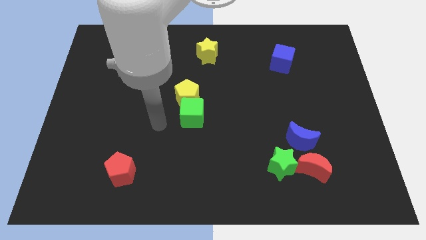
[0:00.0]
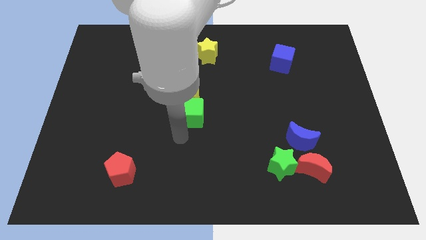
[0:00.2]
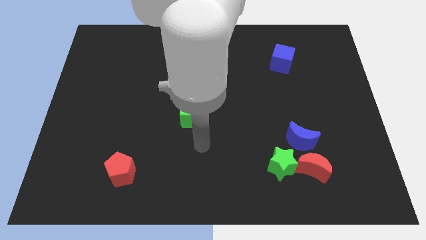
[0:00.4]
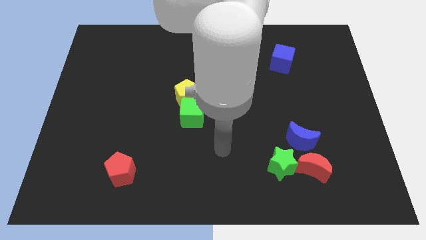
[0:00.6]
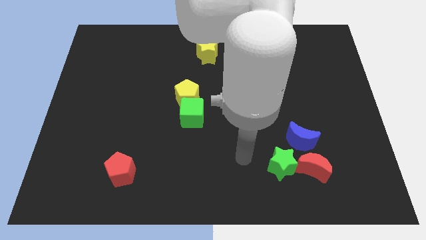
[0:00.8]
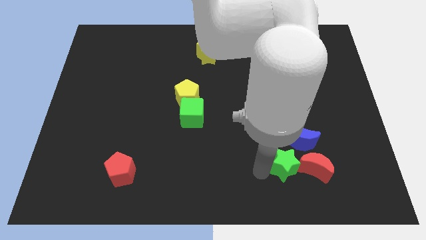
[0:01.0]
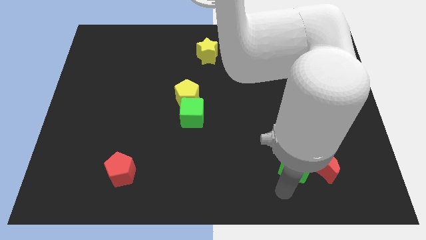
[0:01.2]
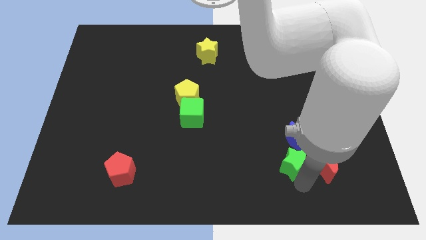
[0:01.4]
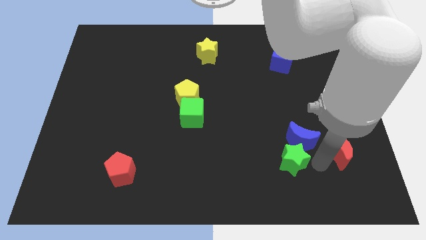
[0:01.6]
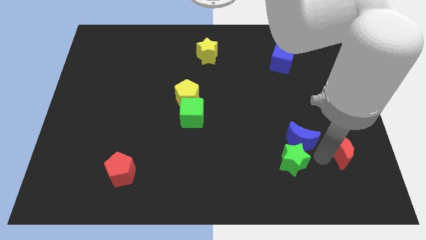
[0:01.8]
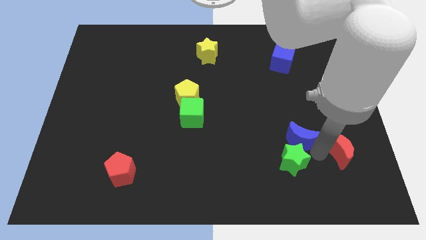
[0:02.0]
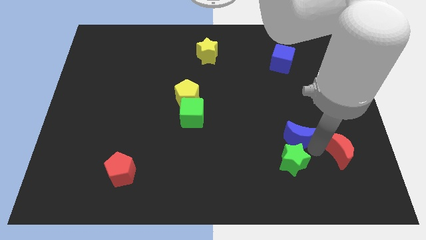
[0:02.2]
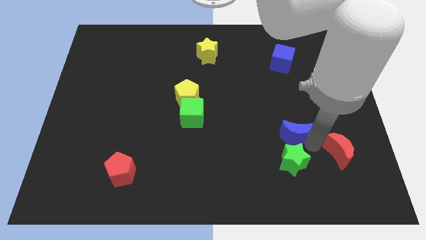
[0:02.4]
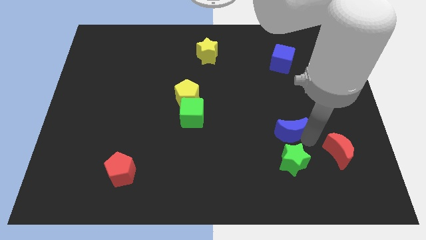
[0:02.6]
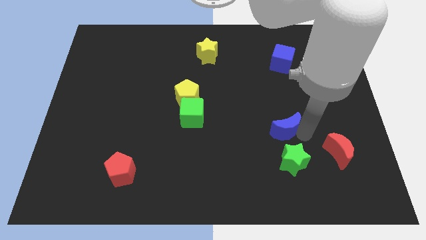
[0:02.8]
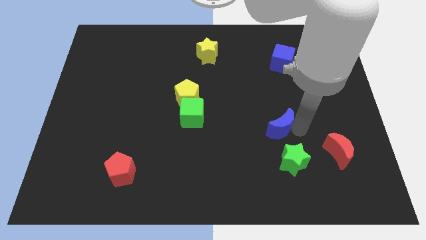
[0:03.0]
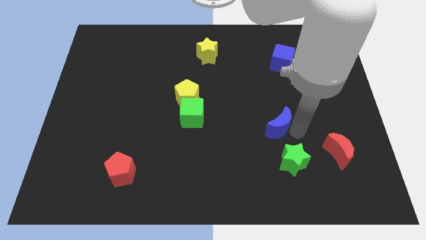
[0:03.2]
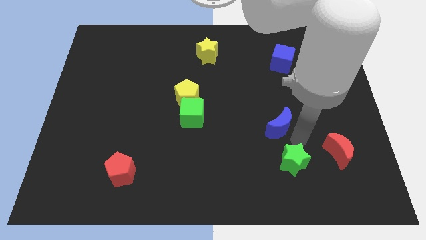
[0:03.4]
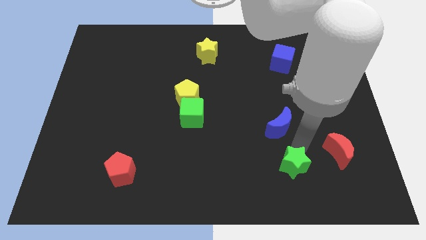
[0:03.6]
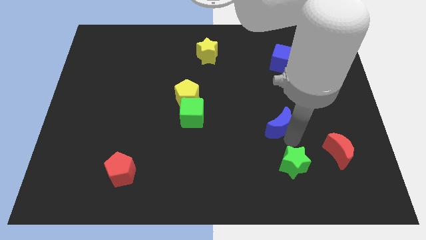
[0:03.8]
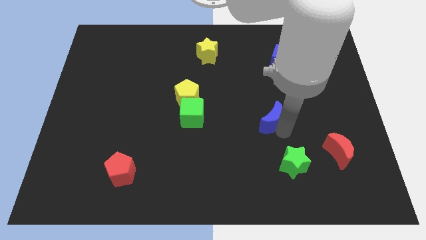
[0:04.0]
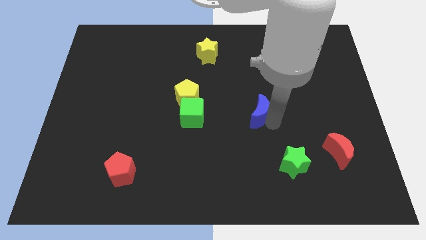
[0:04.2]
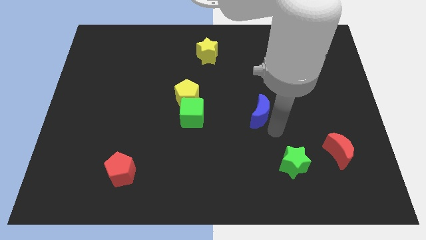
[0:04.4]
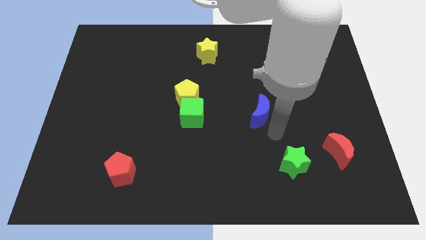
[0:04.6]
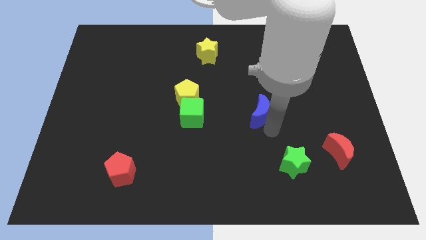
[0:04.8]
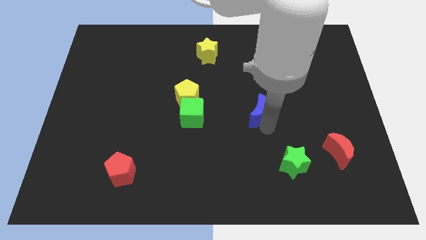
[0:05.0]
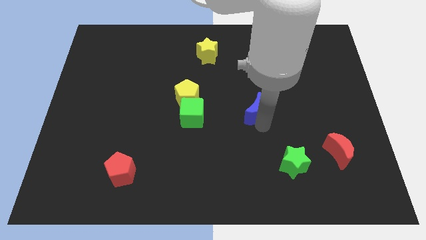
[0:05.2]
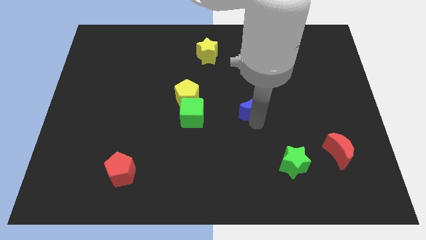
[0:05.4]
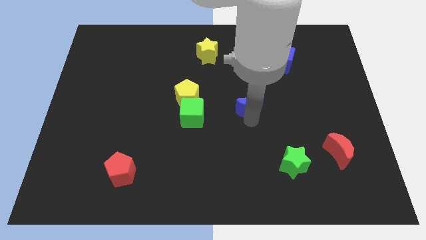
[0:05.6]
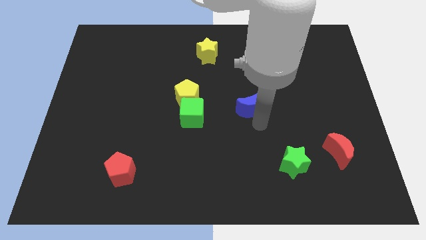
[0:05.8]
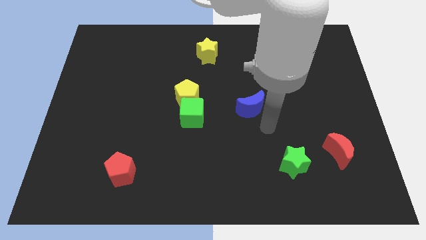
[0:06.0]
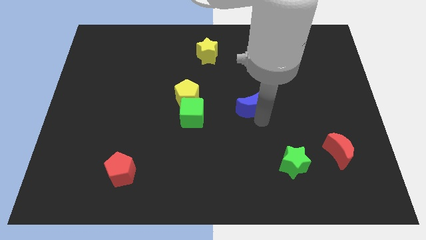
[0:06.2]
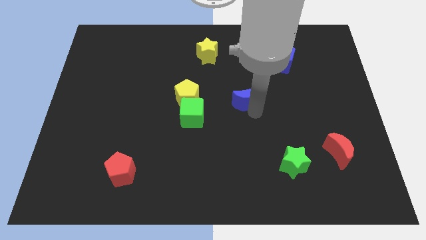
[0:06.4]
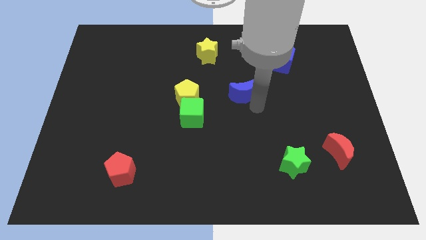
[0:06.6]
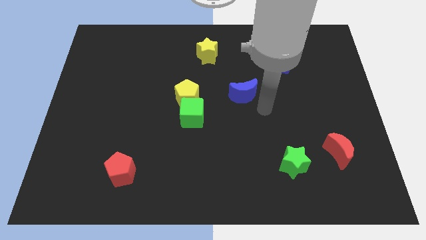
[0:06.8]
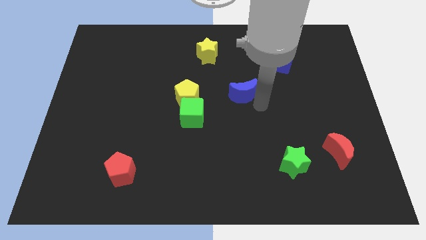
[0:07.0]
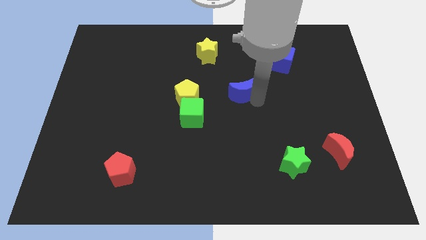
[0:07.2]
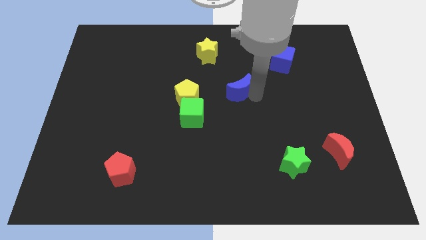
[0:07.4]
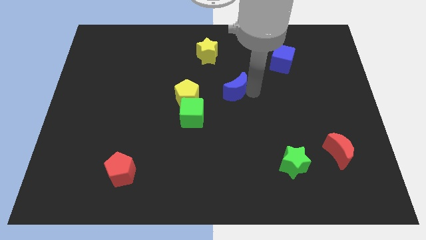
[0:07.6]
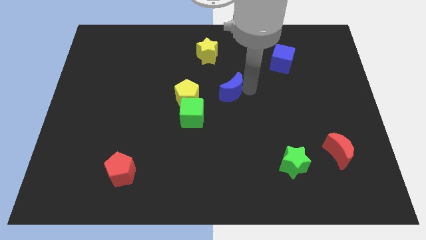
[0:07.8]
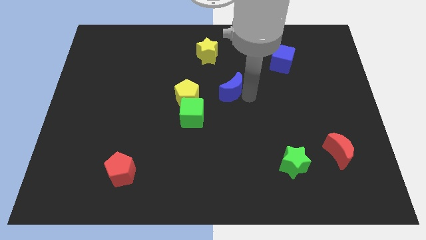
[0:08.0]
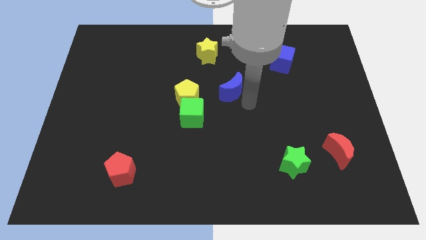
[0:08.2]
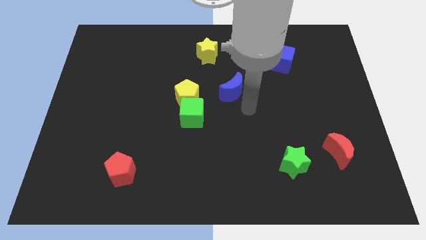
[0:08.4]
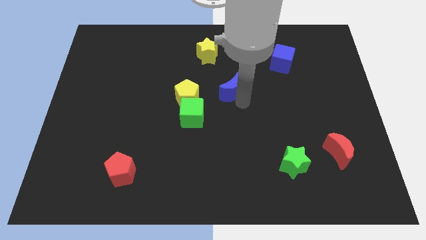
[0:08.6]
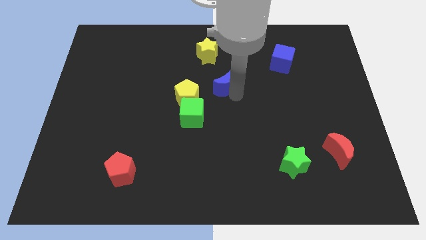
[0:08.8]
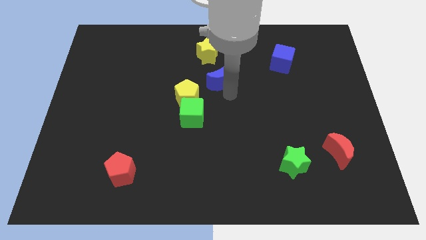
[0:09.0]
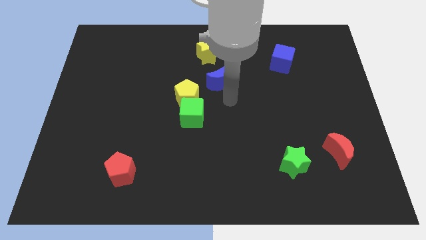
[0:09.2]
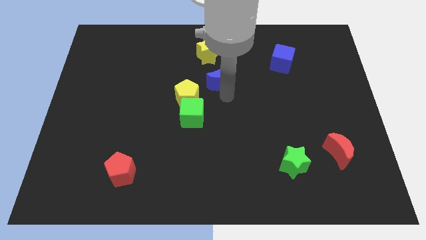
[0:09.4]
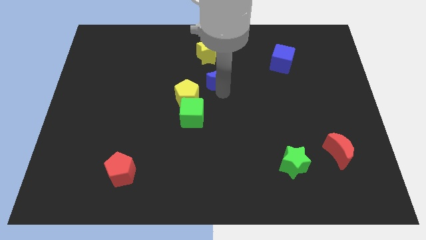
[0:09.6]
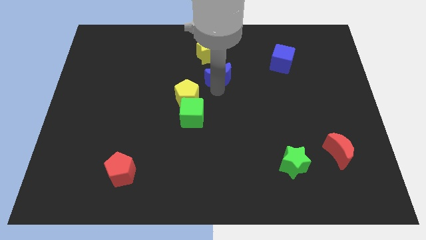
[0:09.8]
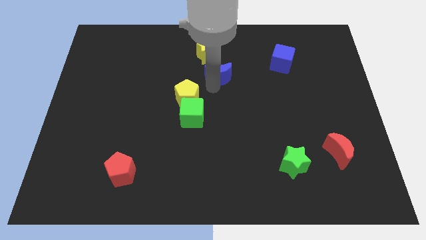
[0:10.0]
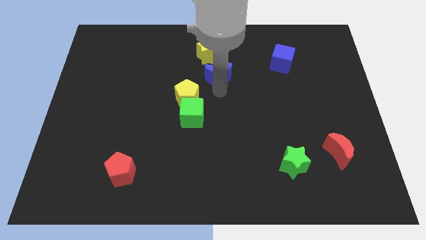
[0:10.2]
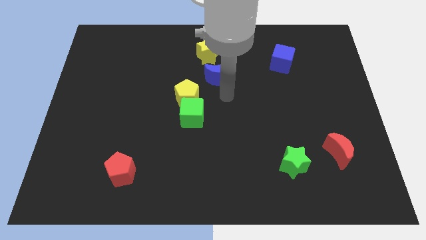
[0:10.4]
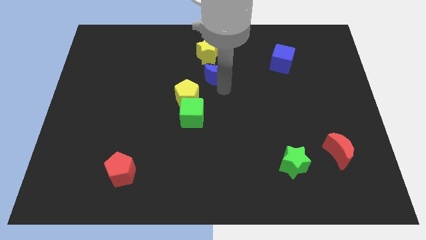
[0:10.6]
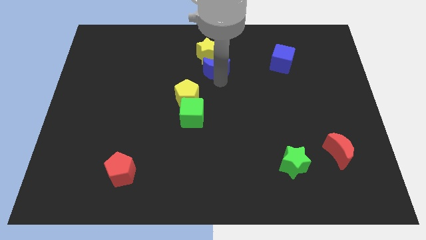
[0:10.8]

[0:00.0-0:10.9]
slide the blue moon towards the yellow star

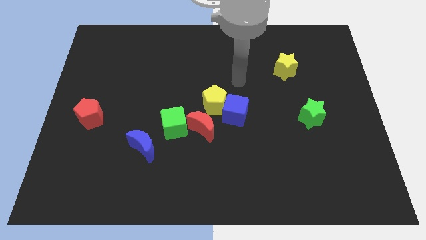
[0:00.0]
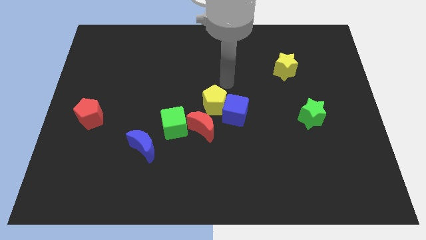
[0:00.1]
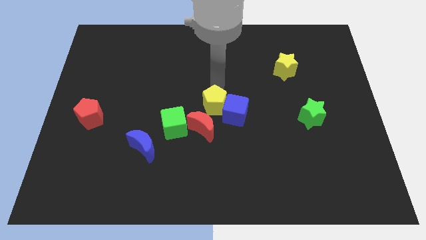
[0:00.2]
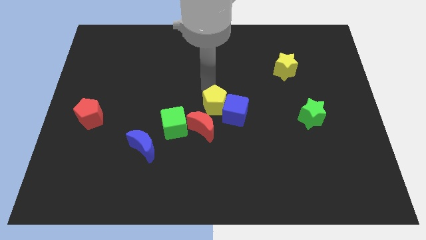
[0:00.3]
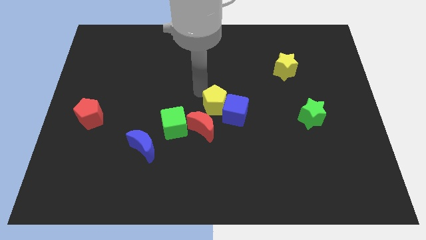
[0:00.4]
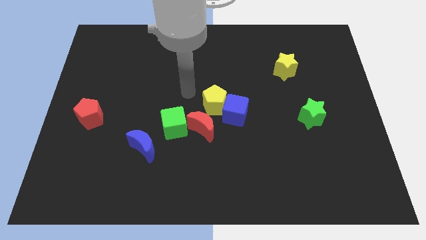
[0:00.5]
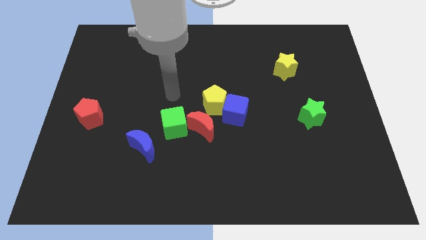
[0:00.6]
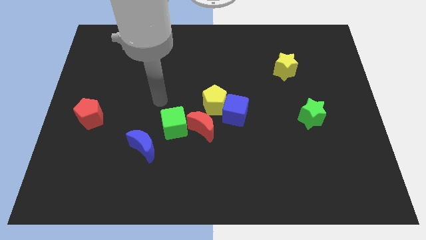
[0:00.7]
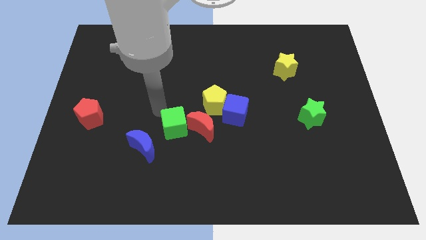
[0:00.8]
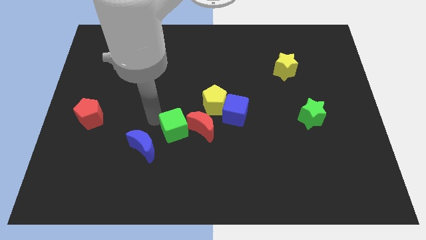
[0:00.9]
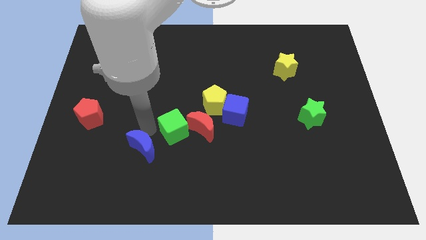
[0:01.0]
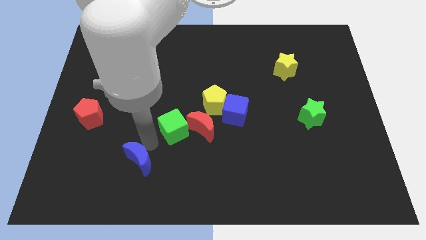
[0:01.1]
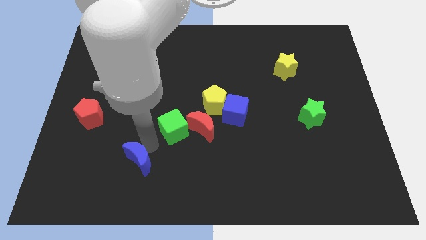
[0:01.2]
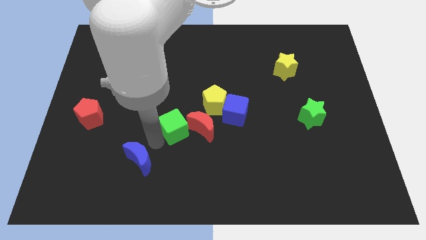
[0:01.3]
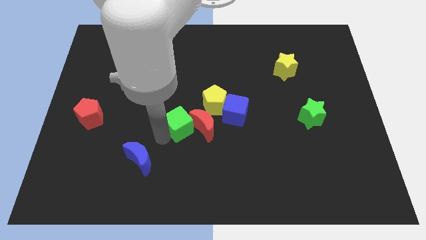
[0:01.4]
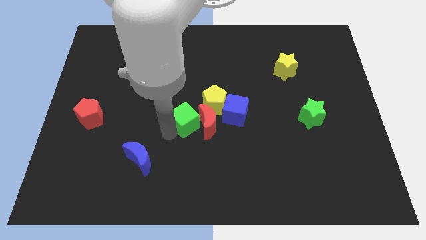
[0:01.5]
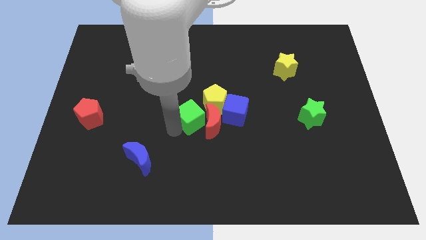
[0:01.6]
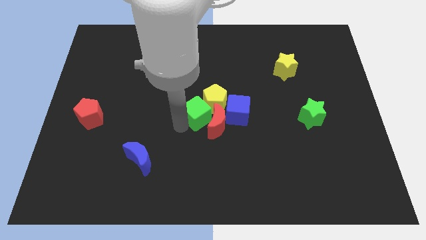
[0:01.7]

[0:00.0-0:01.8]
move the green cube next to the yellow pentagon
